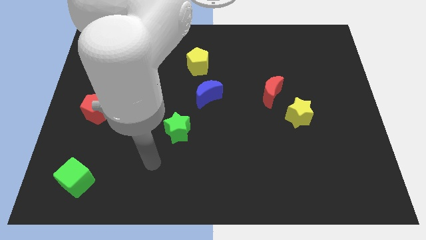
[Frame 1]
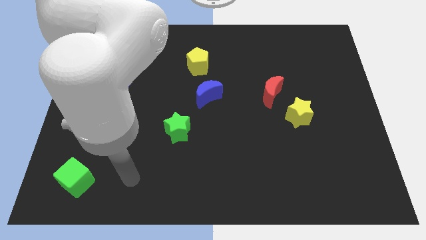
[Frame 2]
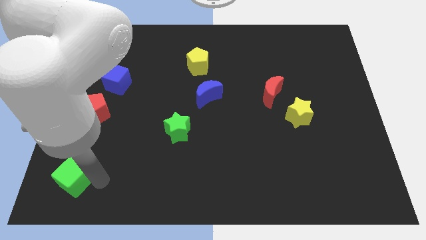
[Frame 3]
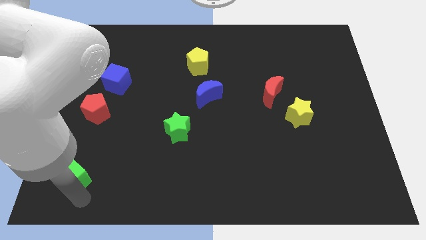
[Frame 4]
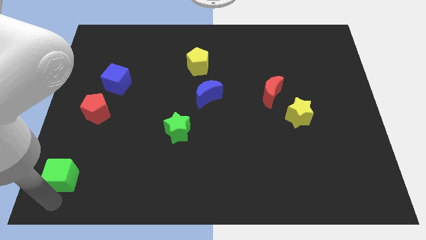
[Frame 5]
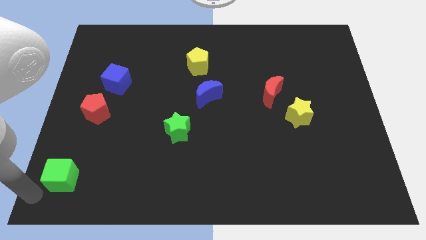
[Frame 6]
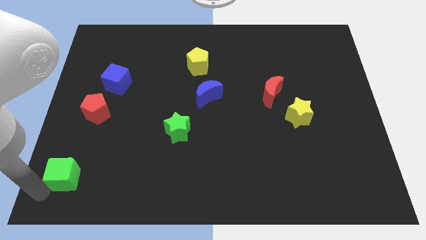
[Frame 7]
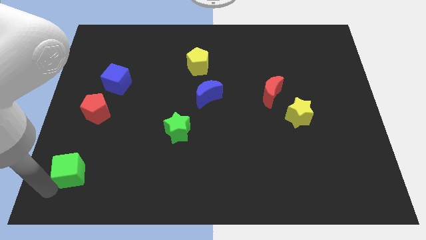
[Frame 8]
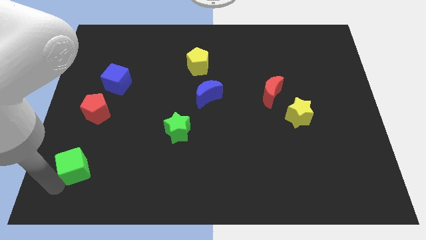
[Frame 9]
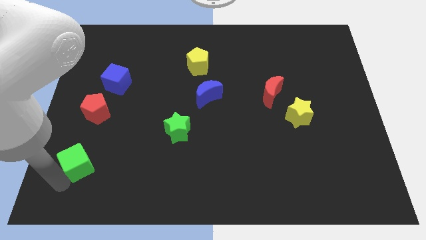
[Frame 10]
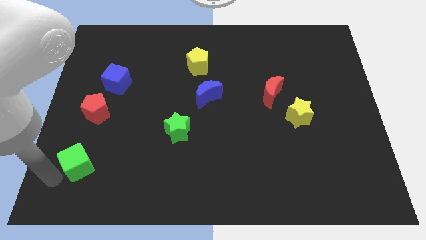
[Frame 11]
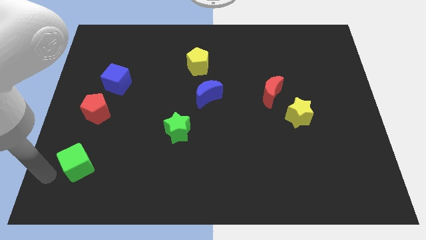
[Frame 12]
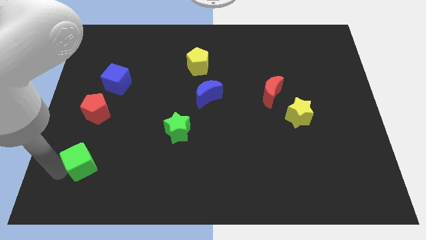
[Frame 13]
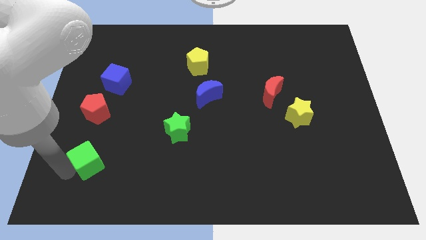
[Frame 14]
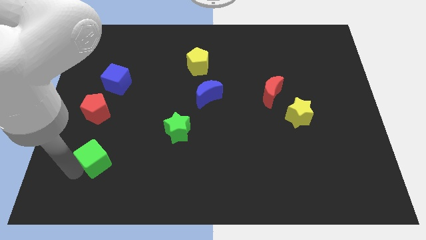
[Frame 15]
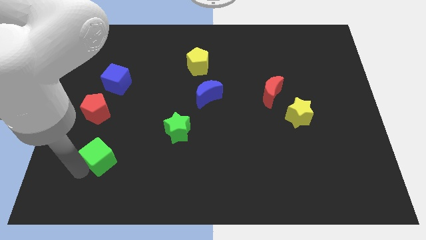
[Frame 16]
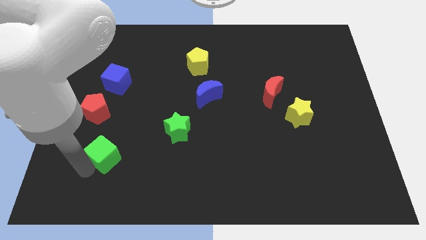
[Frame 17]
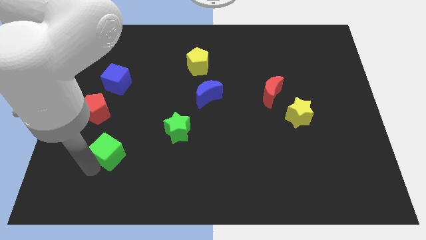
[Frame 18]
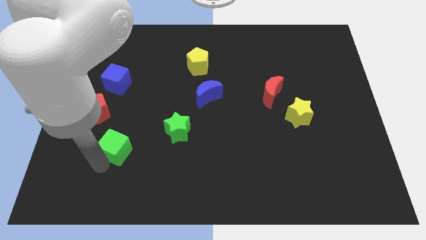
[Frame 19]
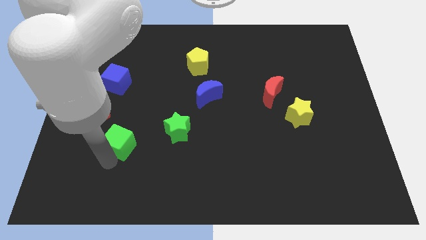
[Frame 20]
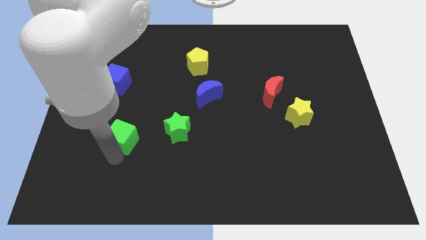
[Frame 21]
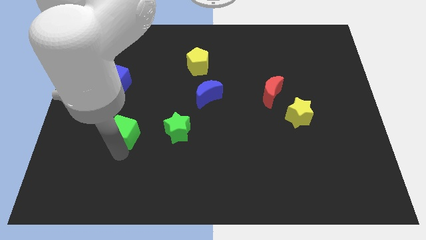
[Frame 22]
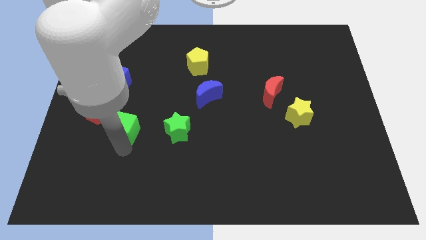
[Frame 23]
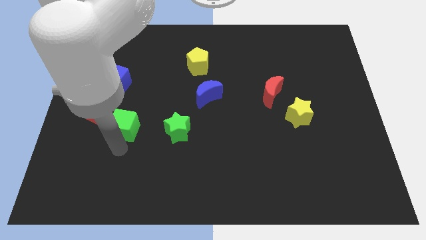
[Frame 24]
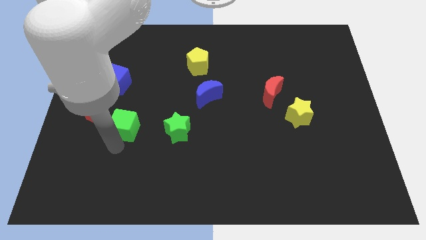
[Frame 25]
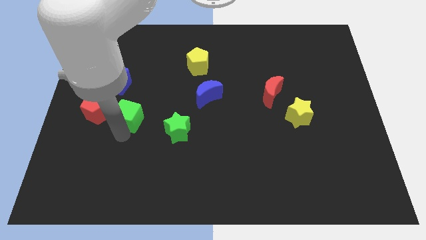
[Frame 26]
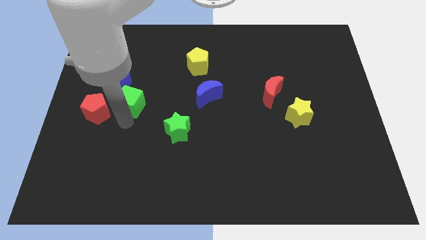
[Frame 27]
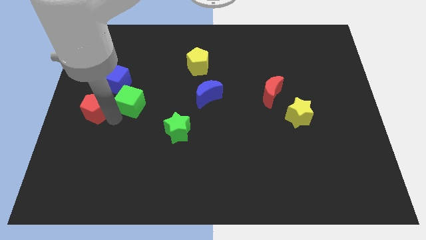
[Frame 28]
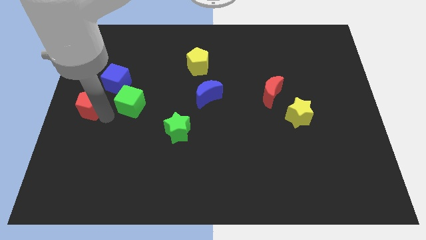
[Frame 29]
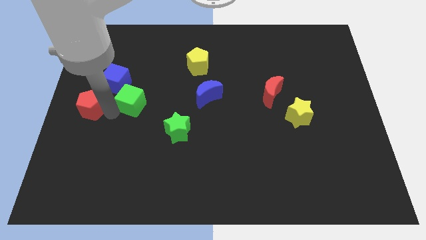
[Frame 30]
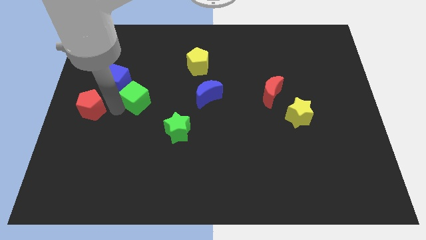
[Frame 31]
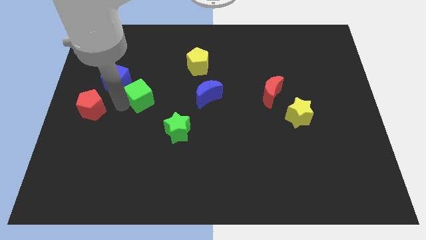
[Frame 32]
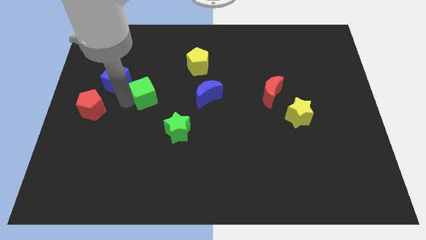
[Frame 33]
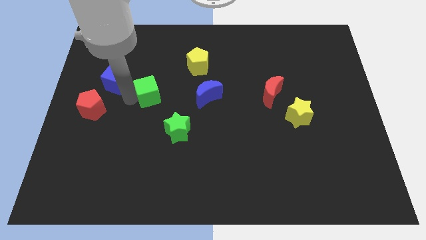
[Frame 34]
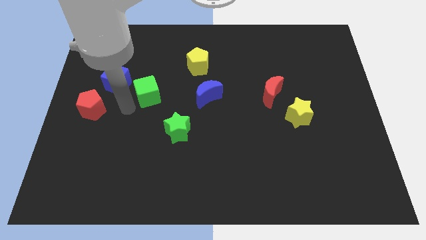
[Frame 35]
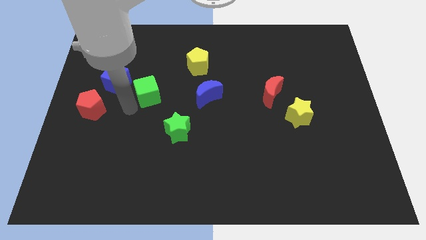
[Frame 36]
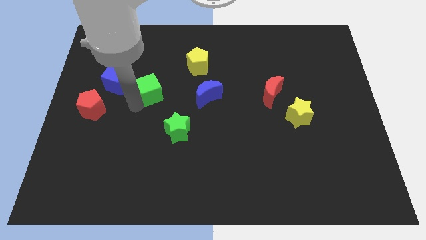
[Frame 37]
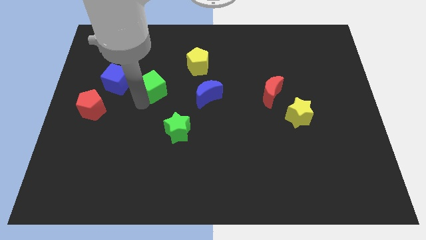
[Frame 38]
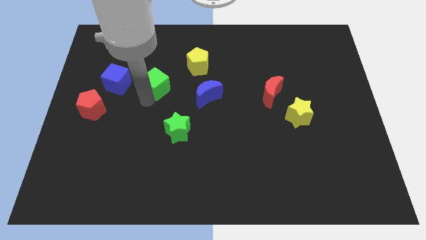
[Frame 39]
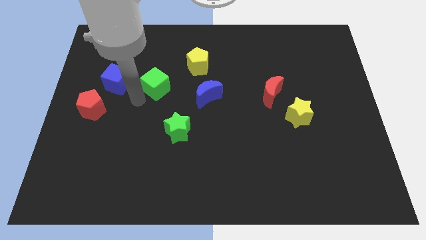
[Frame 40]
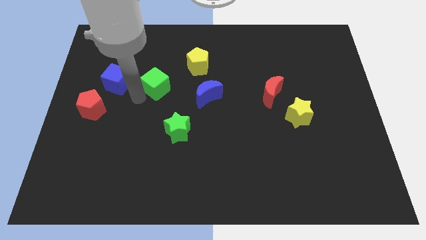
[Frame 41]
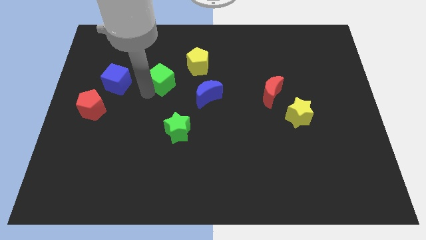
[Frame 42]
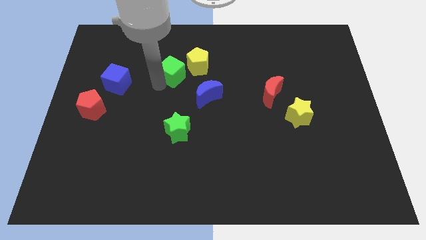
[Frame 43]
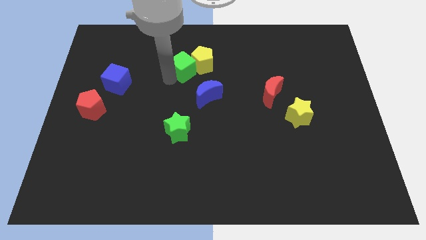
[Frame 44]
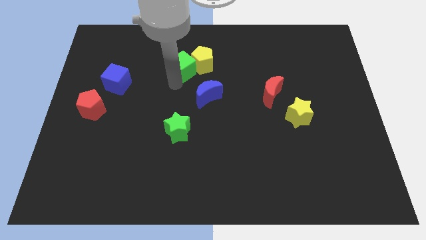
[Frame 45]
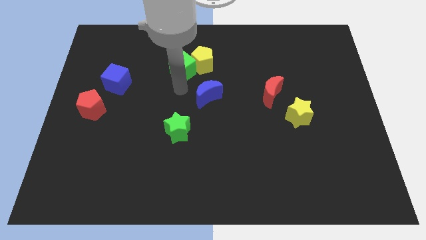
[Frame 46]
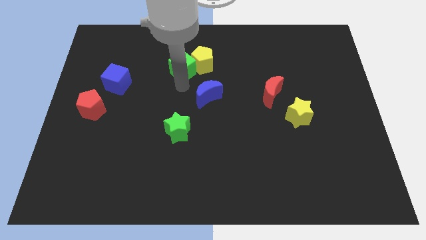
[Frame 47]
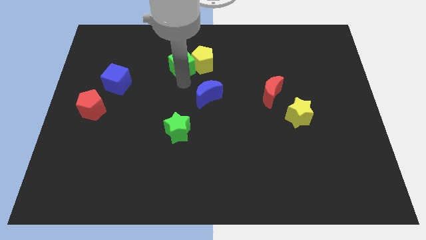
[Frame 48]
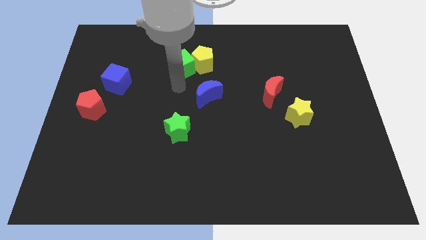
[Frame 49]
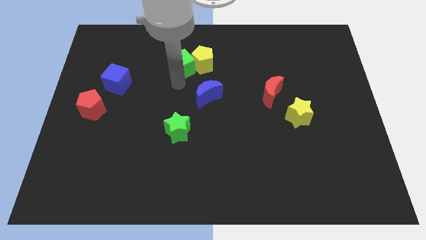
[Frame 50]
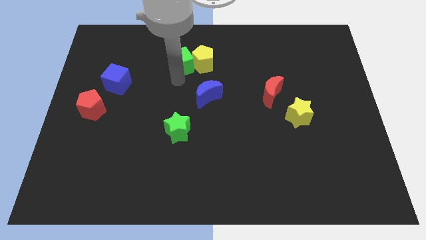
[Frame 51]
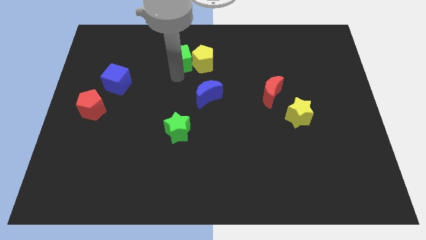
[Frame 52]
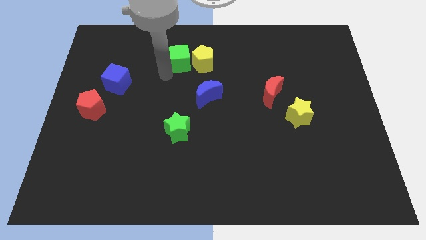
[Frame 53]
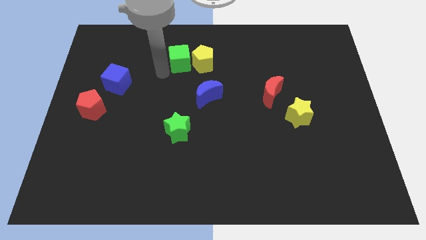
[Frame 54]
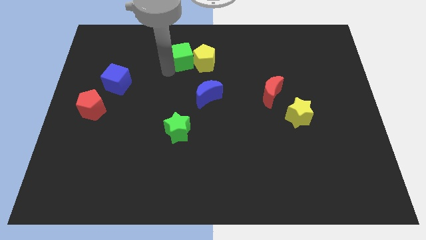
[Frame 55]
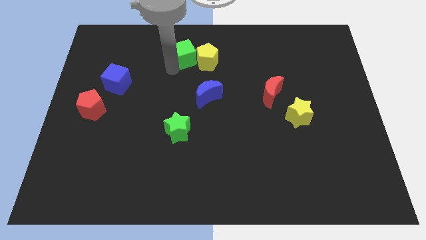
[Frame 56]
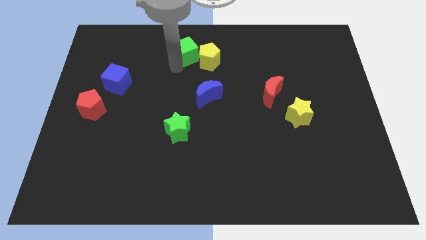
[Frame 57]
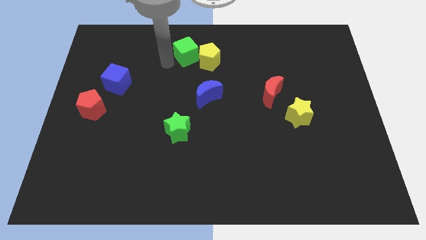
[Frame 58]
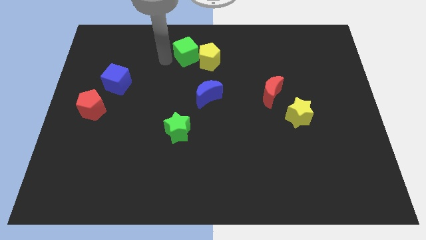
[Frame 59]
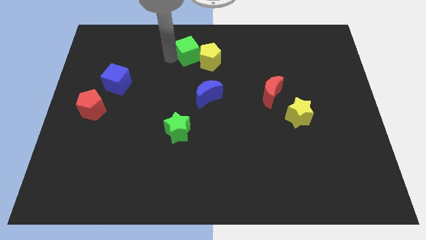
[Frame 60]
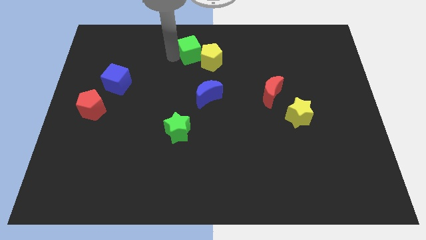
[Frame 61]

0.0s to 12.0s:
put the green cube to the top

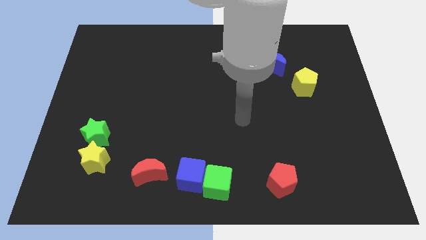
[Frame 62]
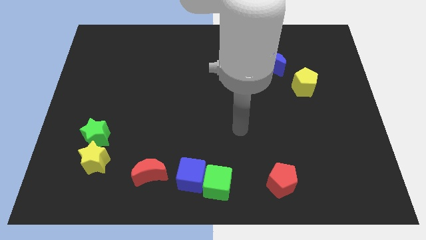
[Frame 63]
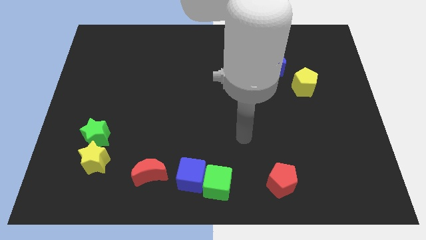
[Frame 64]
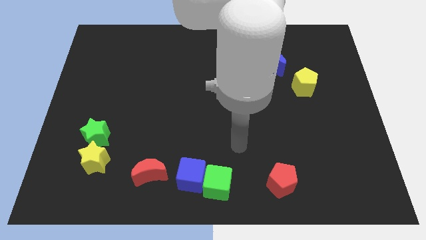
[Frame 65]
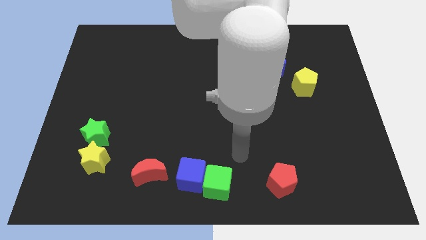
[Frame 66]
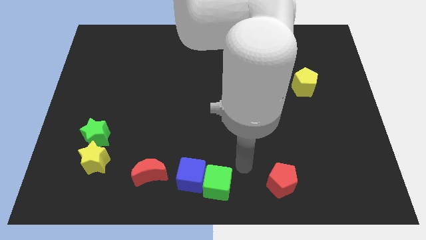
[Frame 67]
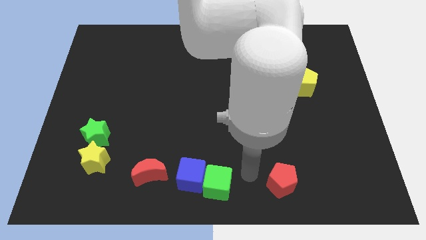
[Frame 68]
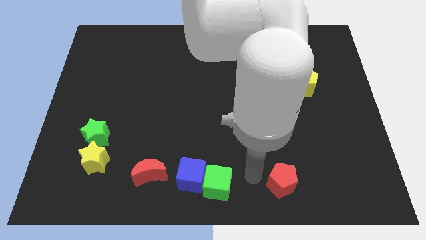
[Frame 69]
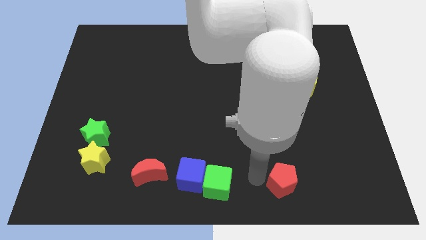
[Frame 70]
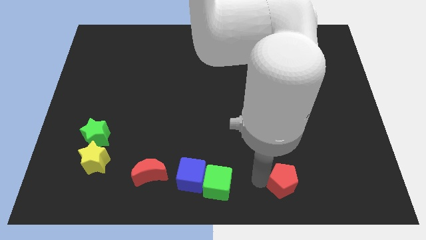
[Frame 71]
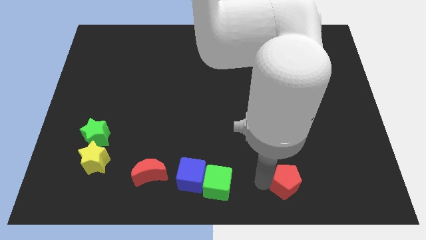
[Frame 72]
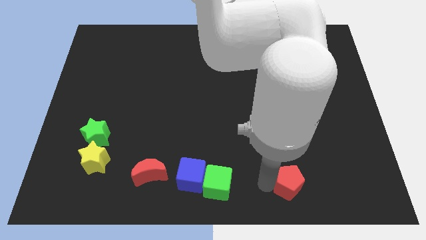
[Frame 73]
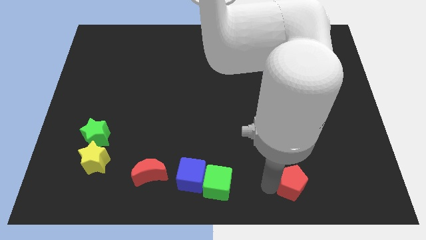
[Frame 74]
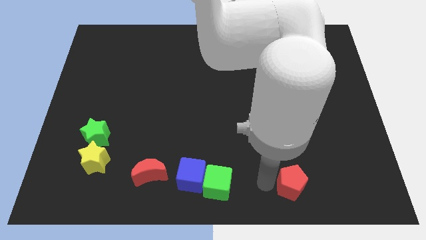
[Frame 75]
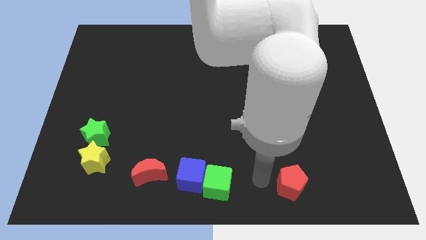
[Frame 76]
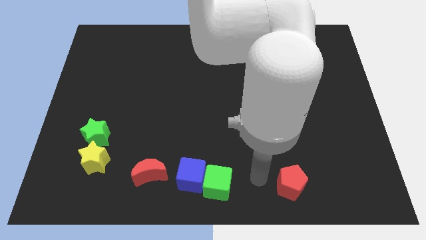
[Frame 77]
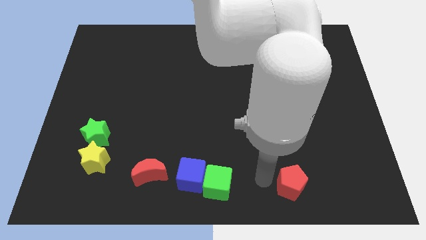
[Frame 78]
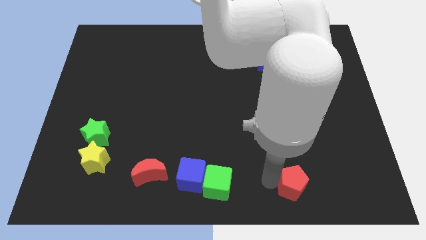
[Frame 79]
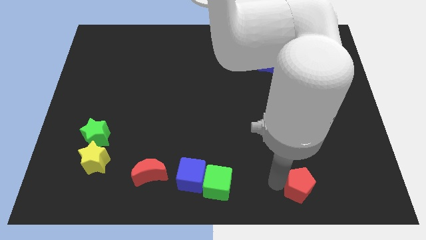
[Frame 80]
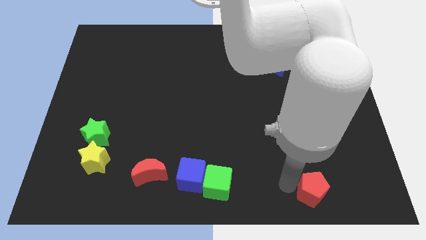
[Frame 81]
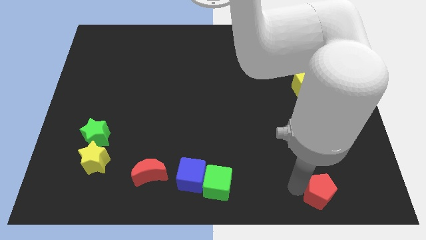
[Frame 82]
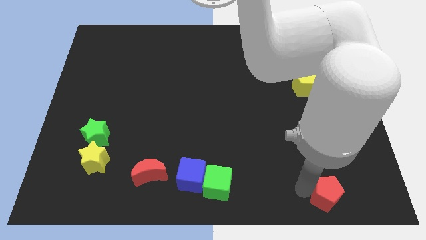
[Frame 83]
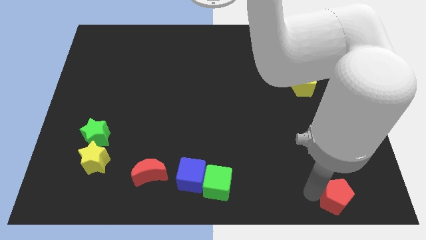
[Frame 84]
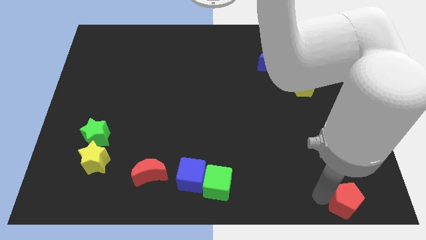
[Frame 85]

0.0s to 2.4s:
push the red pentagon to the bottom right
